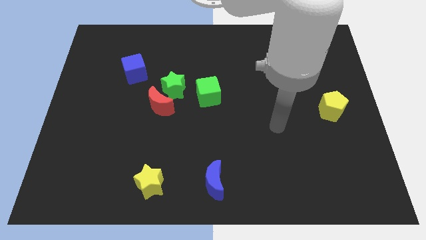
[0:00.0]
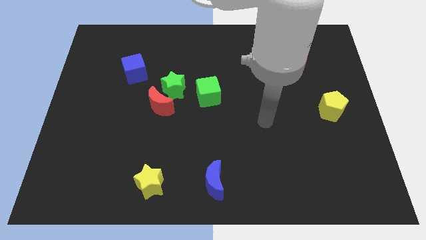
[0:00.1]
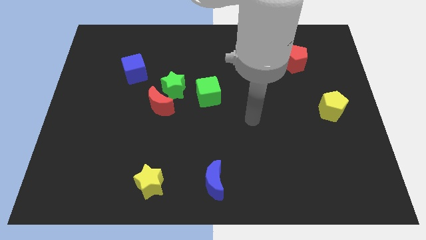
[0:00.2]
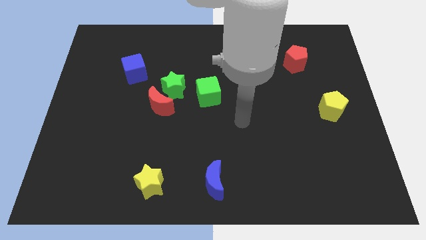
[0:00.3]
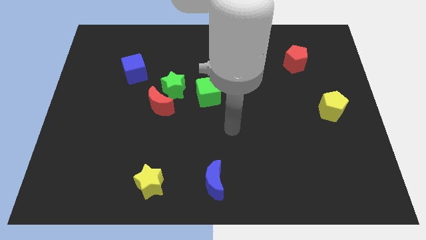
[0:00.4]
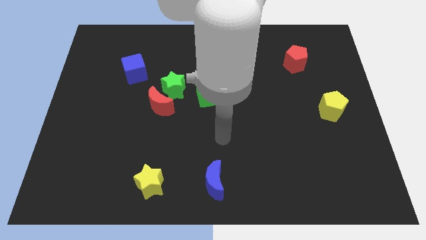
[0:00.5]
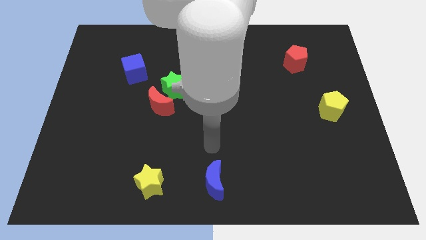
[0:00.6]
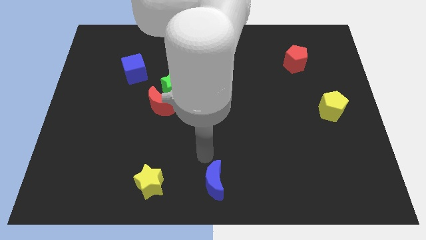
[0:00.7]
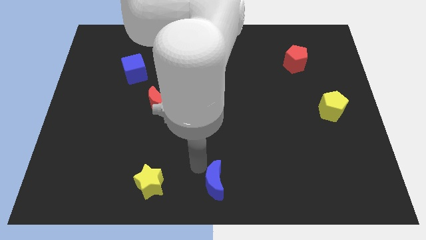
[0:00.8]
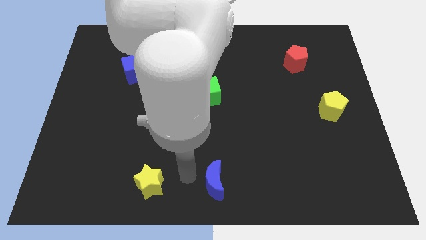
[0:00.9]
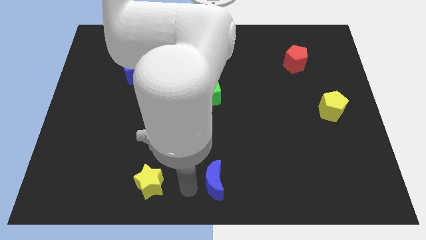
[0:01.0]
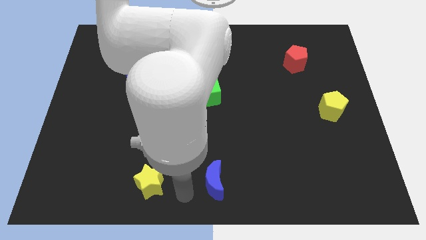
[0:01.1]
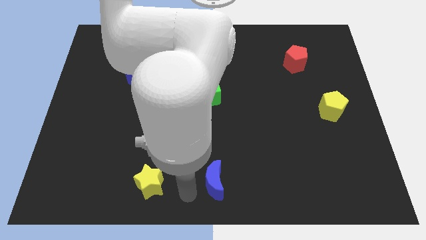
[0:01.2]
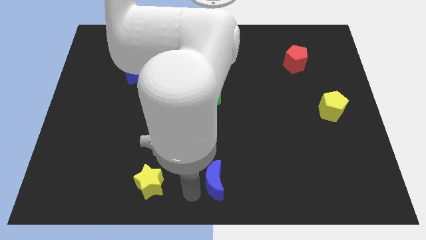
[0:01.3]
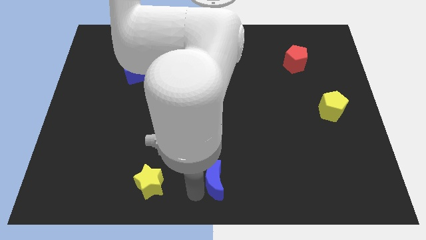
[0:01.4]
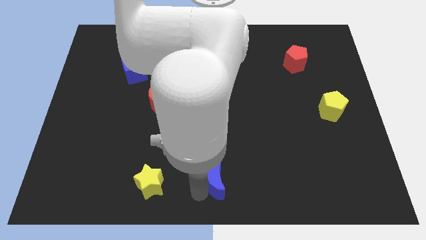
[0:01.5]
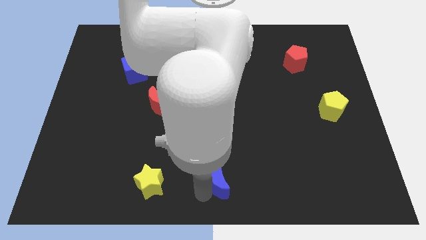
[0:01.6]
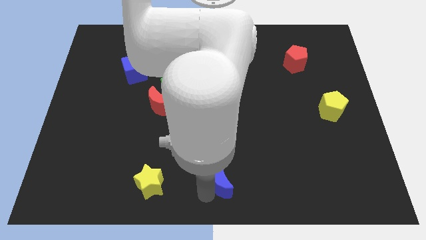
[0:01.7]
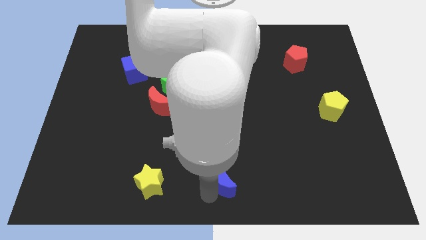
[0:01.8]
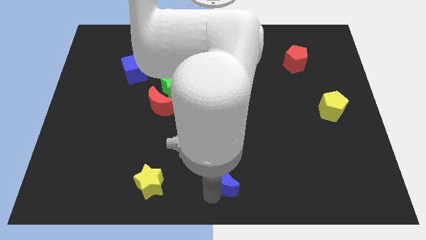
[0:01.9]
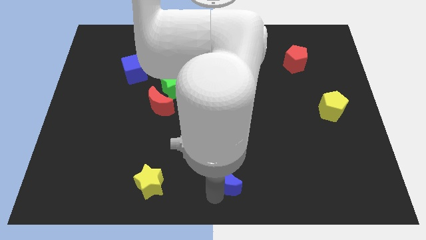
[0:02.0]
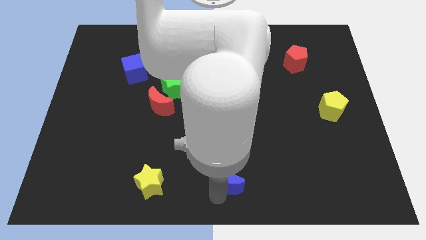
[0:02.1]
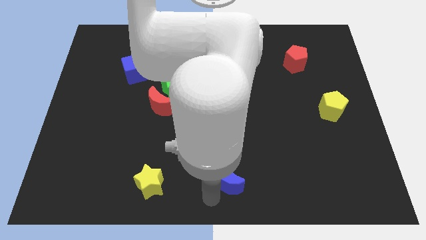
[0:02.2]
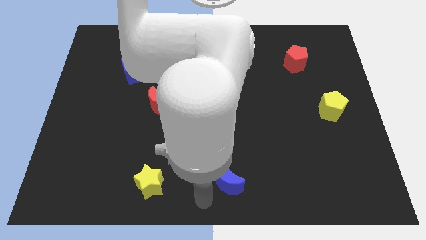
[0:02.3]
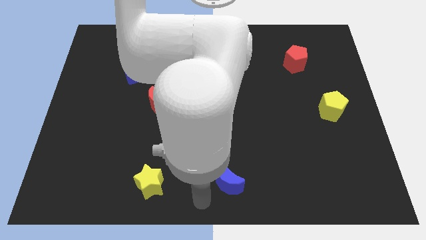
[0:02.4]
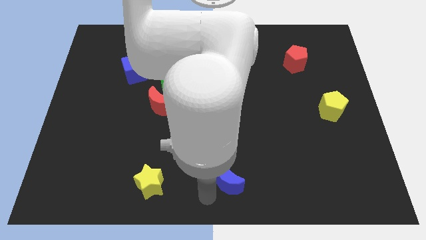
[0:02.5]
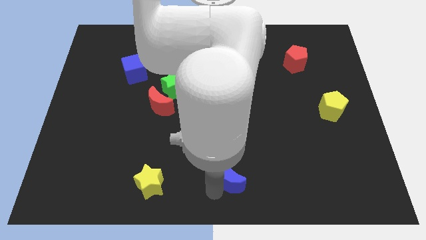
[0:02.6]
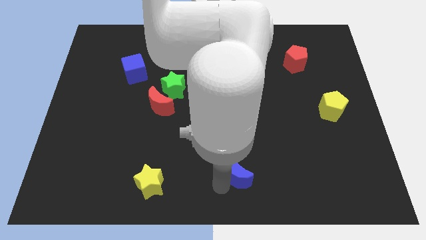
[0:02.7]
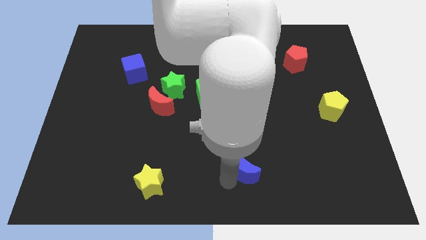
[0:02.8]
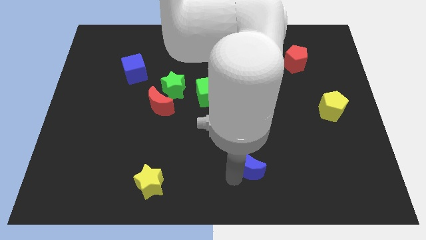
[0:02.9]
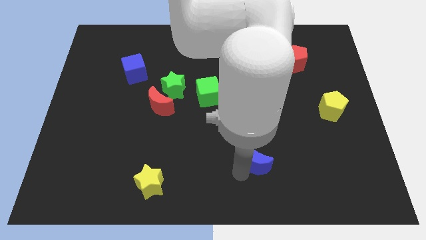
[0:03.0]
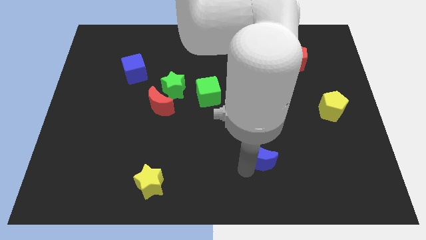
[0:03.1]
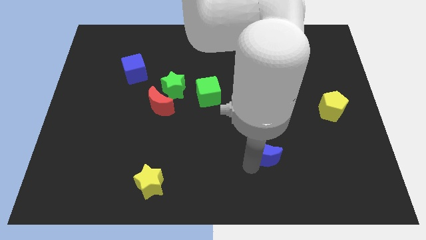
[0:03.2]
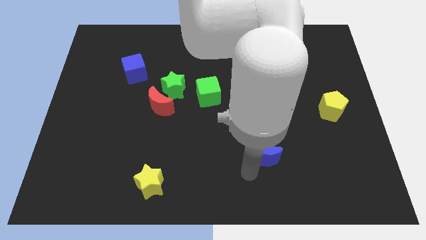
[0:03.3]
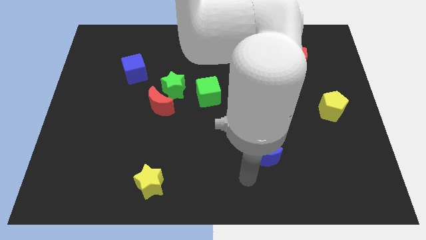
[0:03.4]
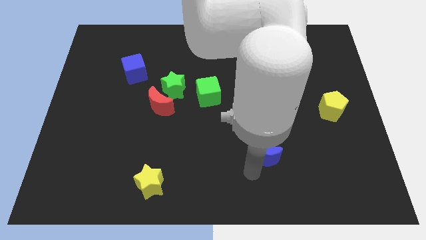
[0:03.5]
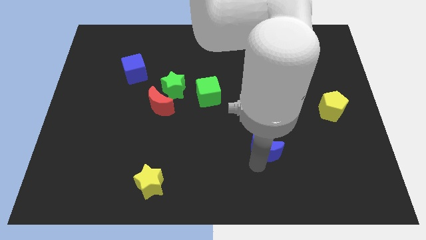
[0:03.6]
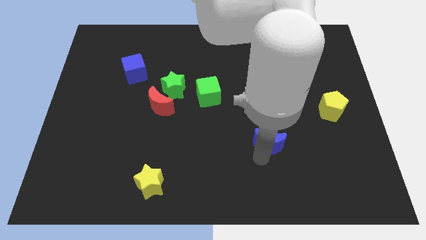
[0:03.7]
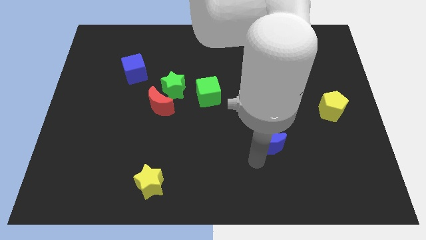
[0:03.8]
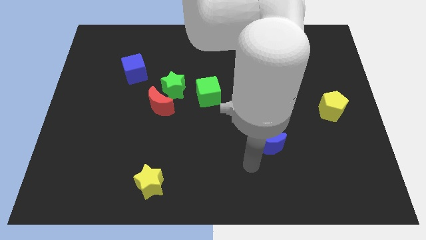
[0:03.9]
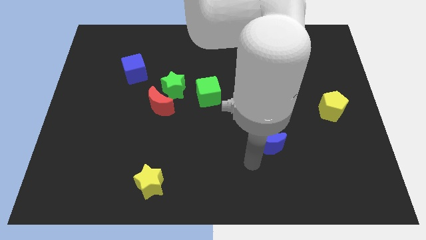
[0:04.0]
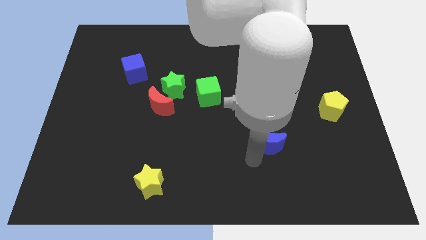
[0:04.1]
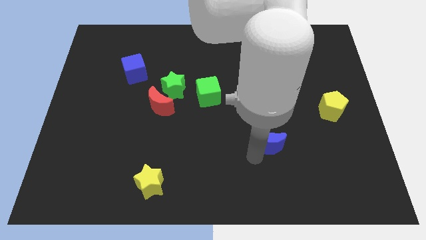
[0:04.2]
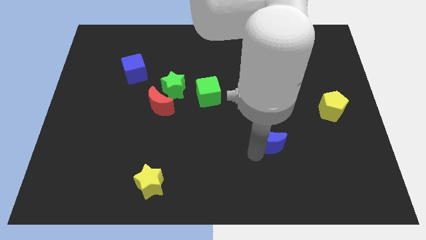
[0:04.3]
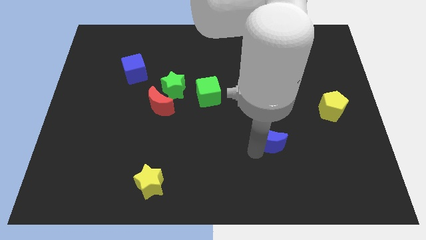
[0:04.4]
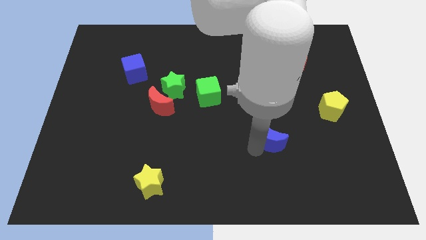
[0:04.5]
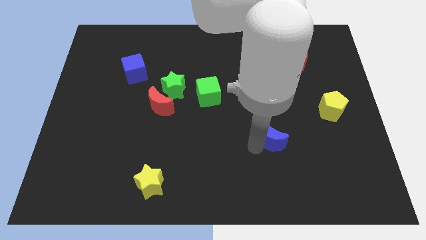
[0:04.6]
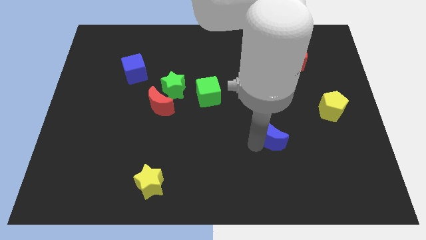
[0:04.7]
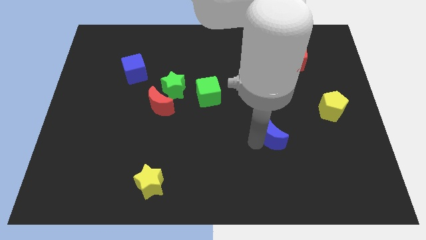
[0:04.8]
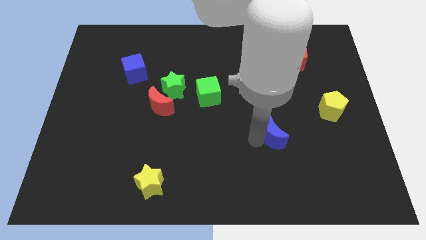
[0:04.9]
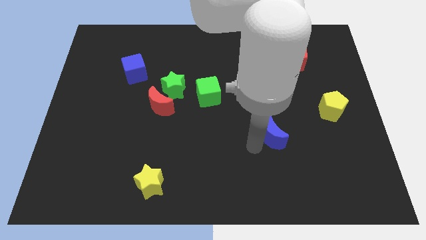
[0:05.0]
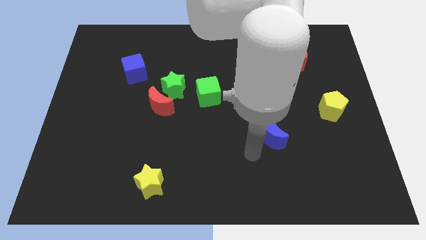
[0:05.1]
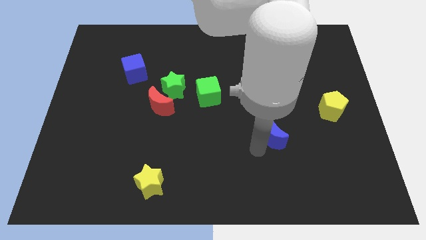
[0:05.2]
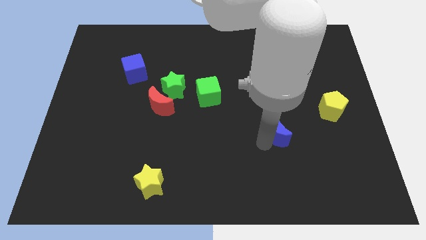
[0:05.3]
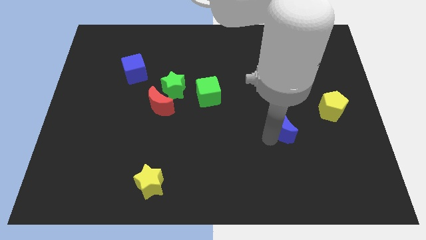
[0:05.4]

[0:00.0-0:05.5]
move the blue moon upwards and to the right

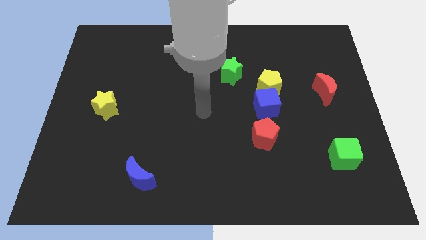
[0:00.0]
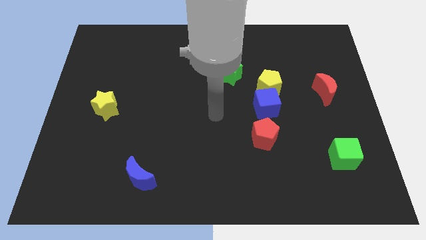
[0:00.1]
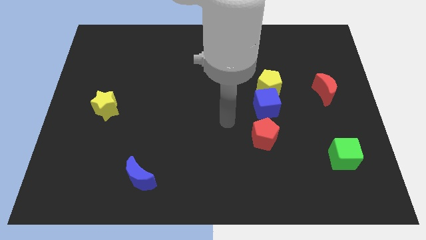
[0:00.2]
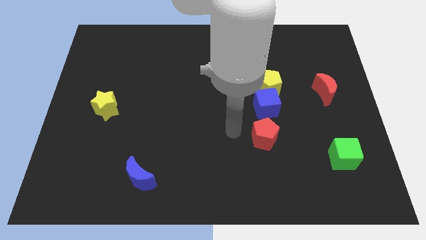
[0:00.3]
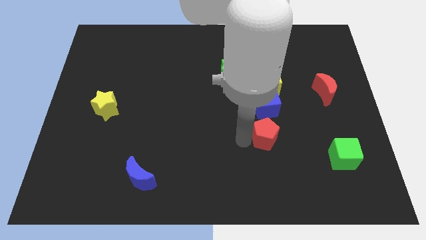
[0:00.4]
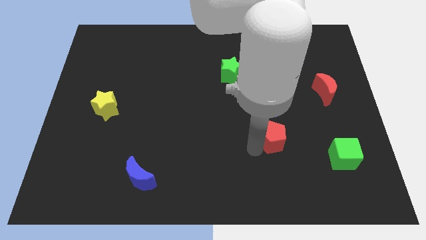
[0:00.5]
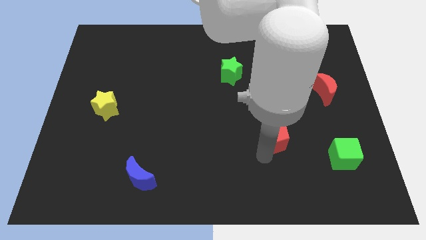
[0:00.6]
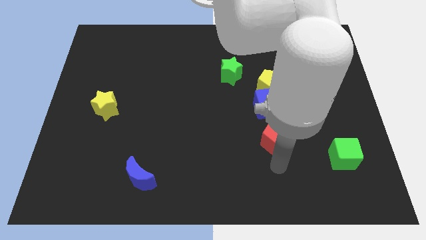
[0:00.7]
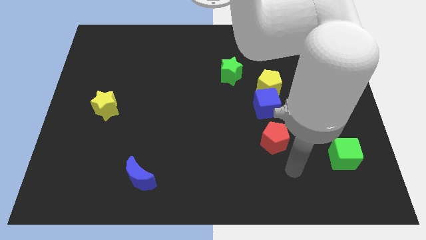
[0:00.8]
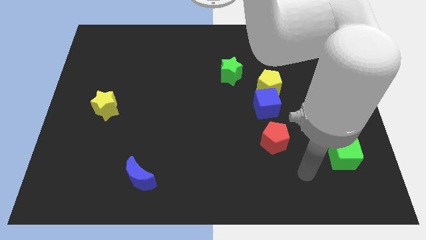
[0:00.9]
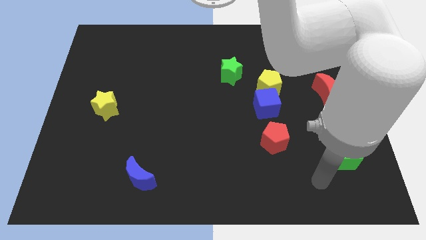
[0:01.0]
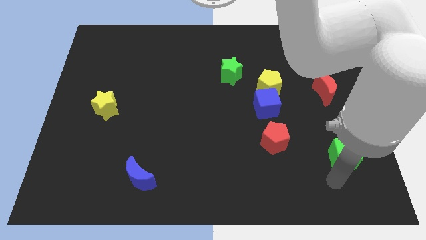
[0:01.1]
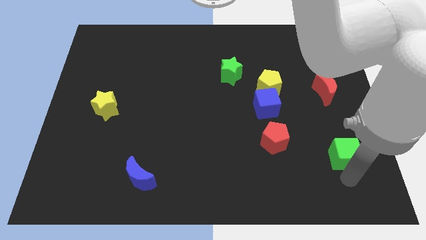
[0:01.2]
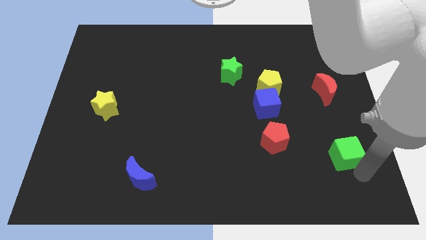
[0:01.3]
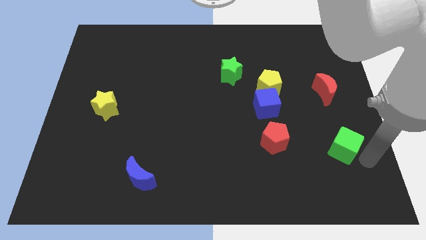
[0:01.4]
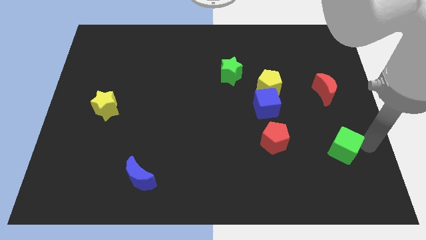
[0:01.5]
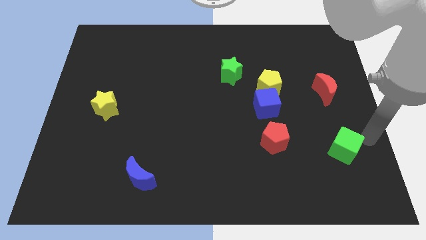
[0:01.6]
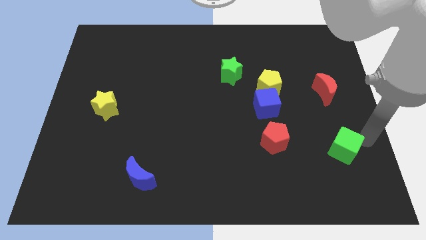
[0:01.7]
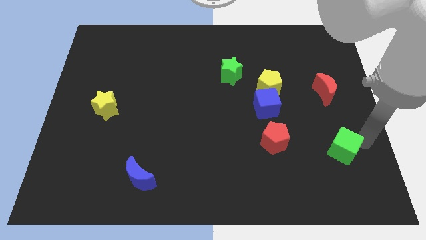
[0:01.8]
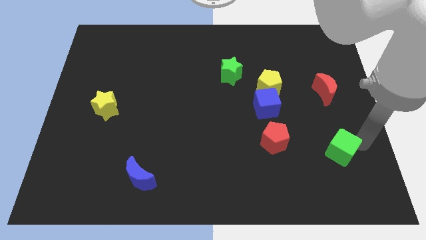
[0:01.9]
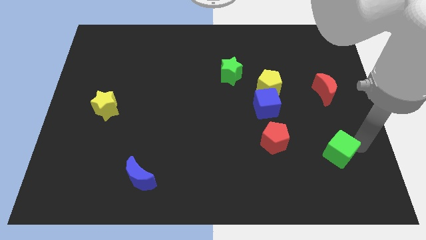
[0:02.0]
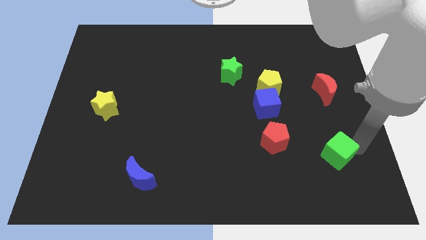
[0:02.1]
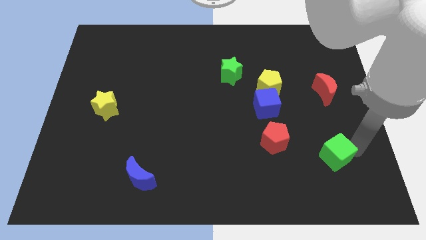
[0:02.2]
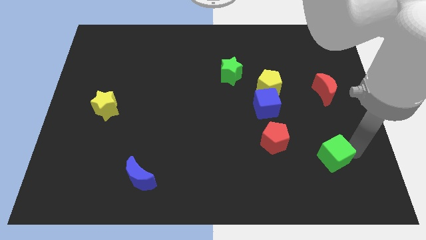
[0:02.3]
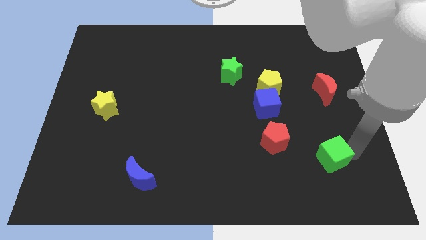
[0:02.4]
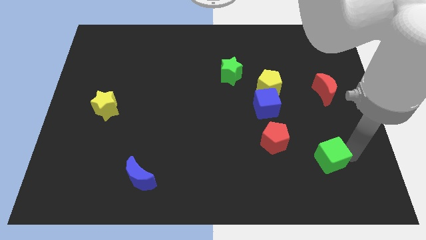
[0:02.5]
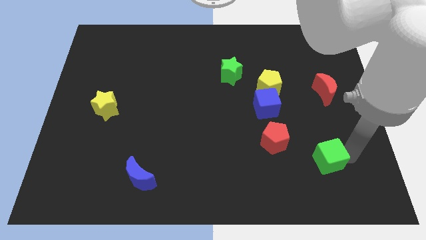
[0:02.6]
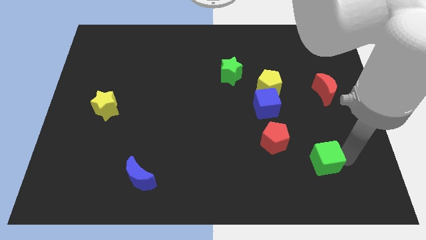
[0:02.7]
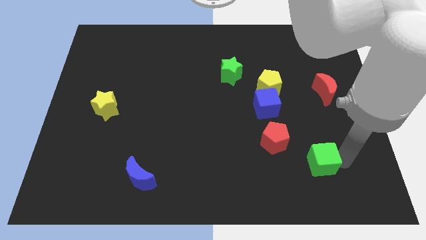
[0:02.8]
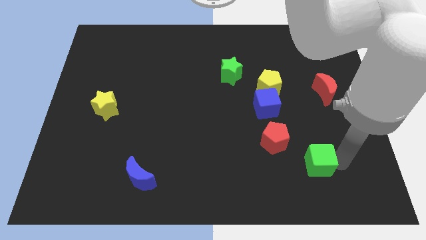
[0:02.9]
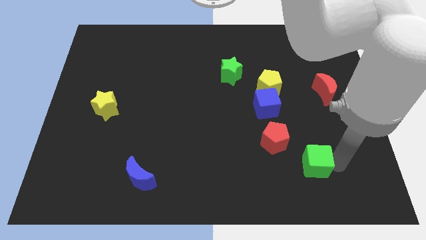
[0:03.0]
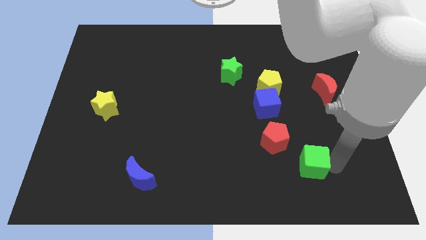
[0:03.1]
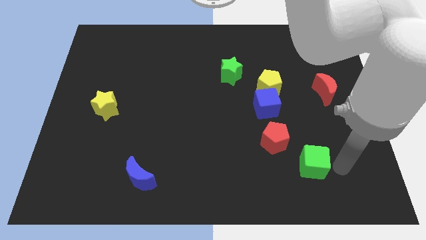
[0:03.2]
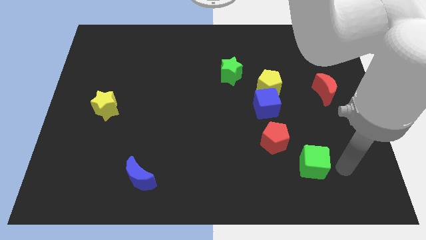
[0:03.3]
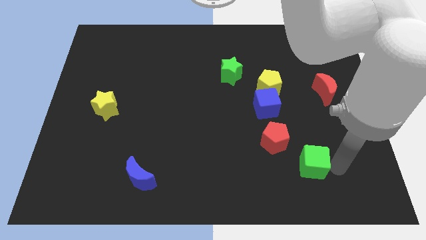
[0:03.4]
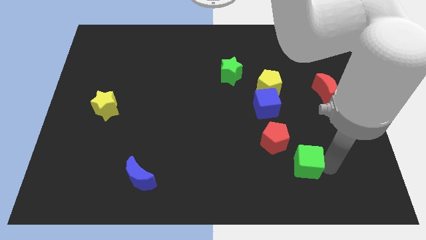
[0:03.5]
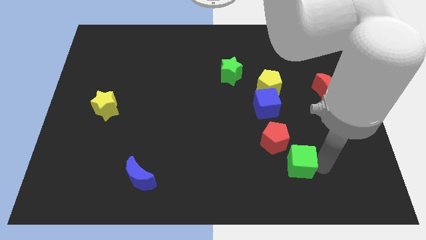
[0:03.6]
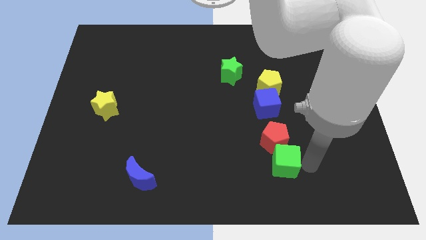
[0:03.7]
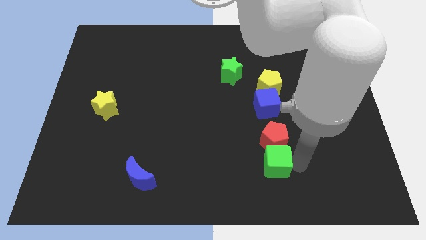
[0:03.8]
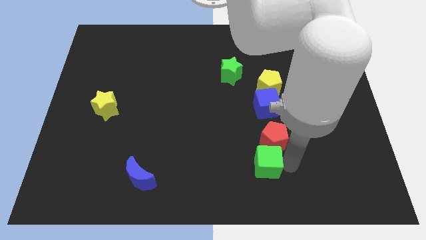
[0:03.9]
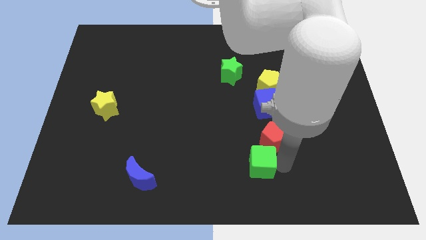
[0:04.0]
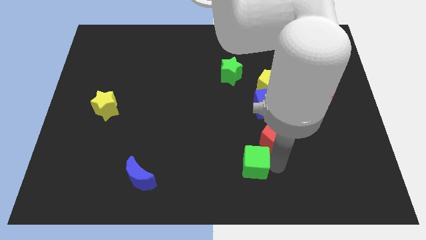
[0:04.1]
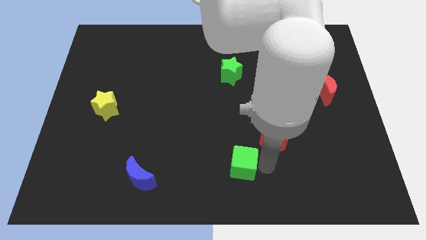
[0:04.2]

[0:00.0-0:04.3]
push the green cube left
